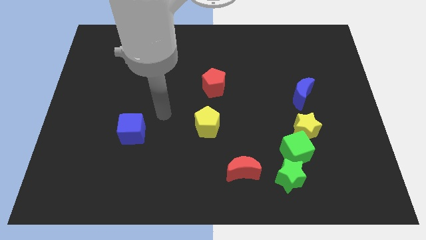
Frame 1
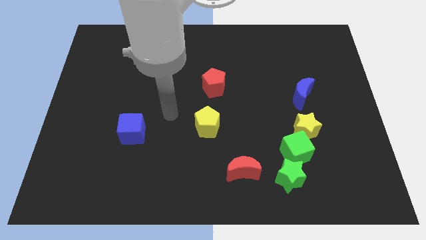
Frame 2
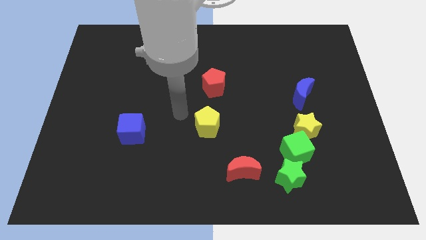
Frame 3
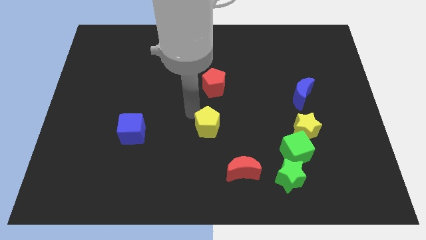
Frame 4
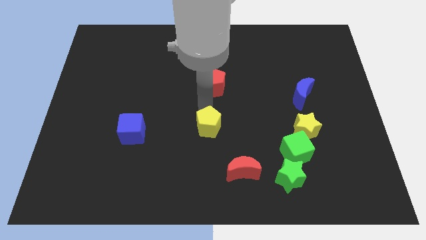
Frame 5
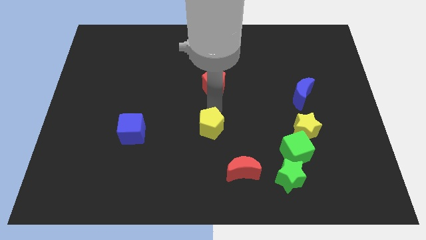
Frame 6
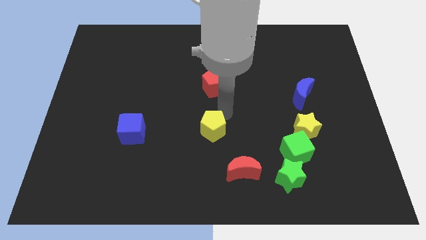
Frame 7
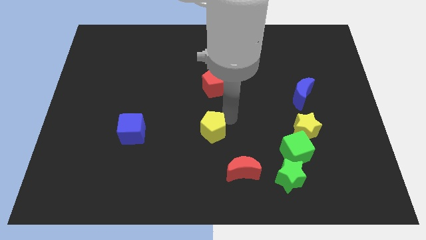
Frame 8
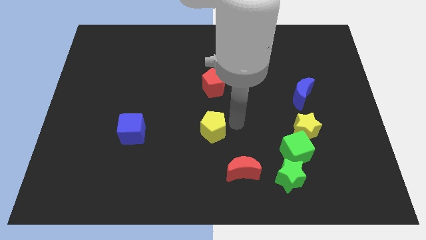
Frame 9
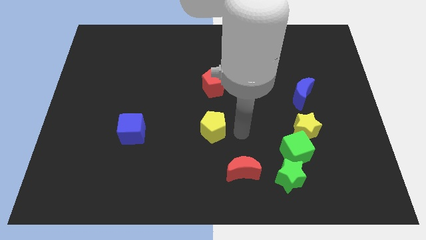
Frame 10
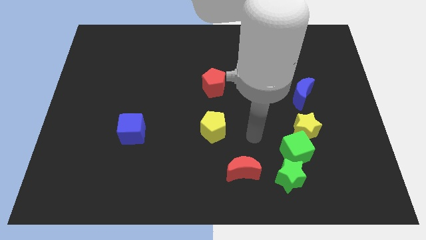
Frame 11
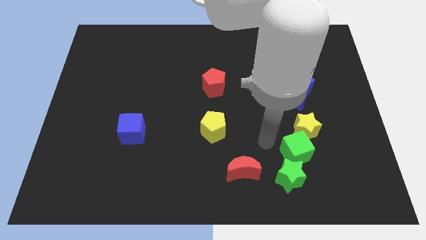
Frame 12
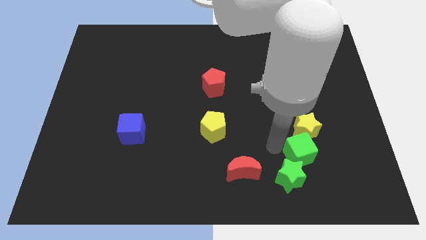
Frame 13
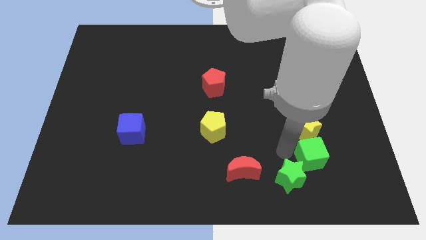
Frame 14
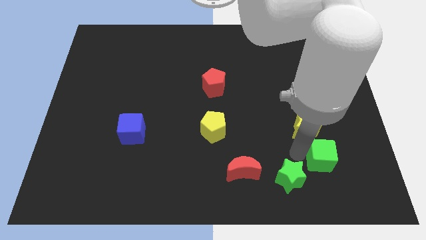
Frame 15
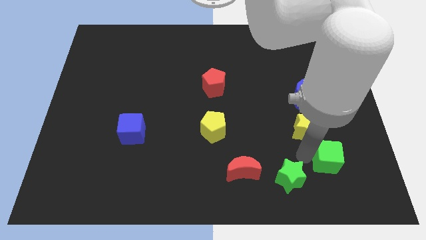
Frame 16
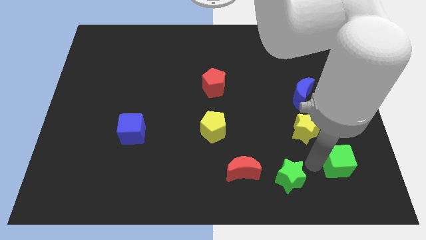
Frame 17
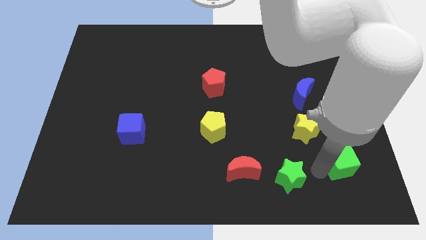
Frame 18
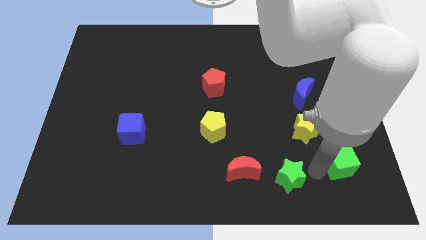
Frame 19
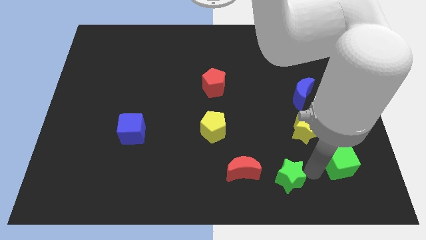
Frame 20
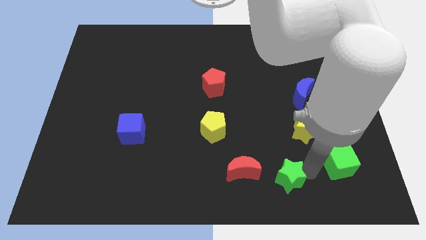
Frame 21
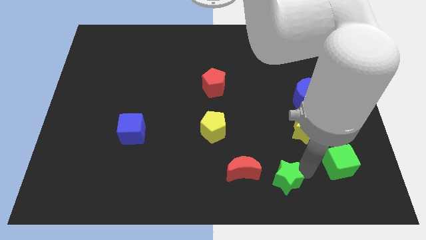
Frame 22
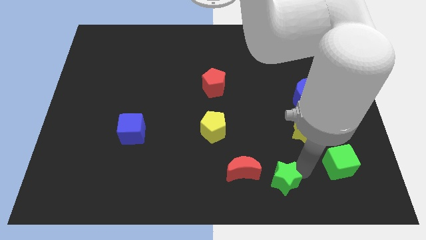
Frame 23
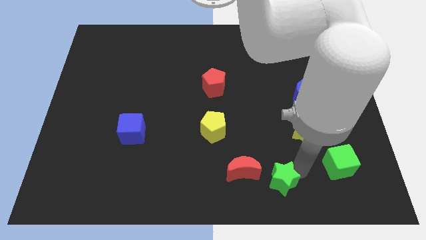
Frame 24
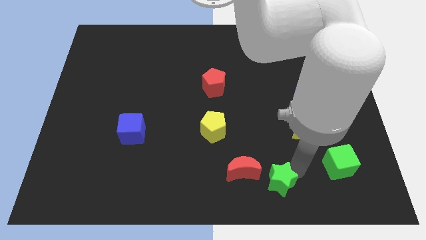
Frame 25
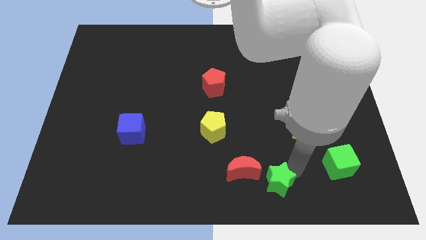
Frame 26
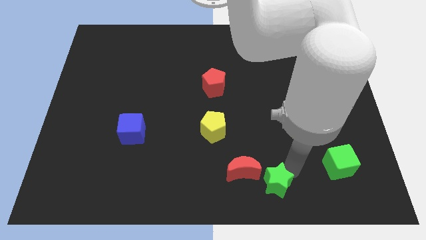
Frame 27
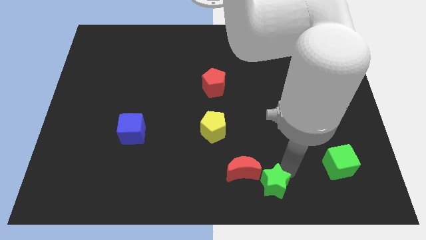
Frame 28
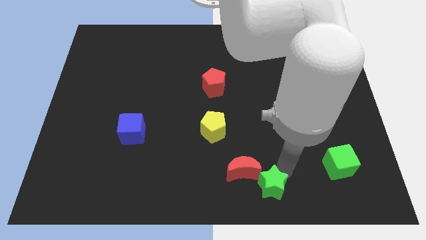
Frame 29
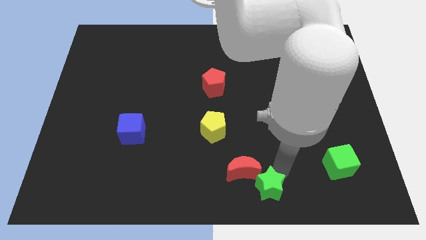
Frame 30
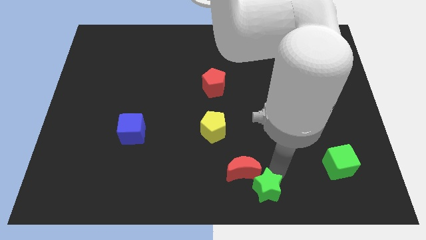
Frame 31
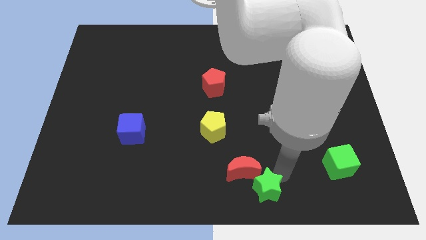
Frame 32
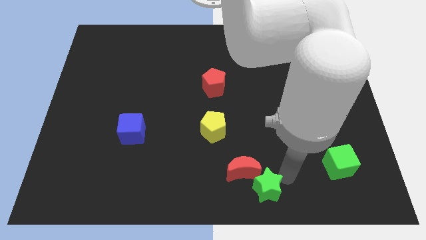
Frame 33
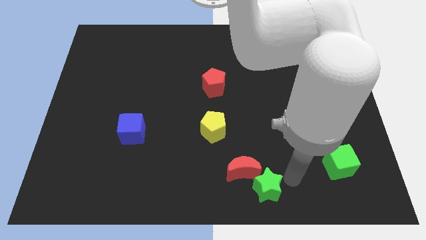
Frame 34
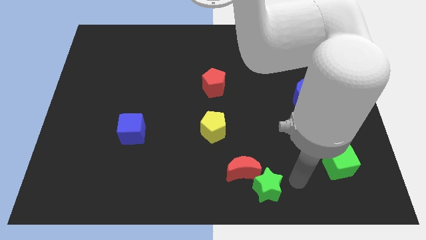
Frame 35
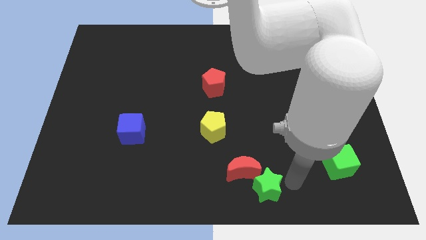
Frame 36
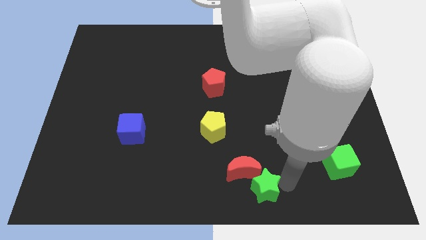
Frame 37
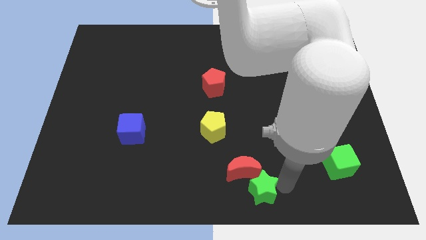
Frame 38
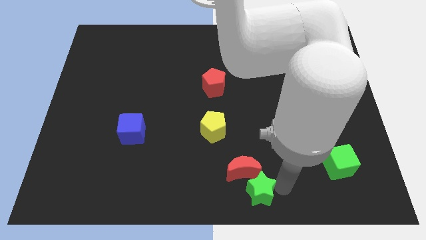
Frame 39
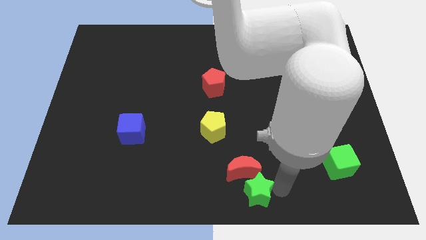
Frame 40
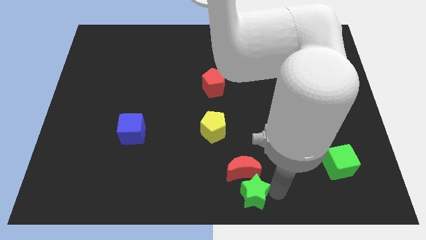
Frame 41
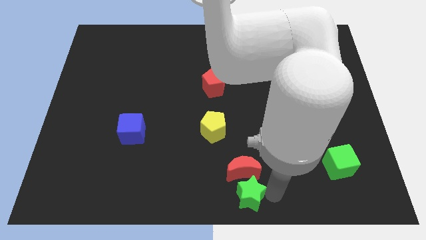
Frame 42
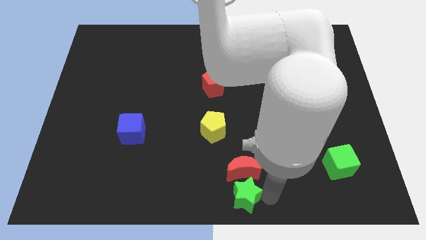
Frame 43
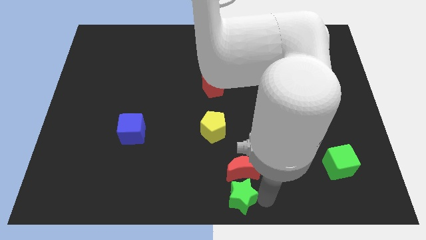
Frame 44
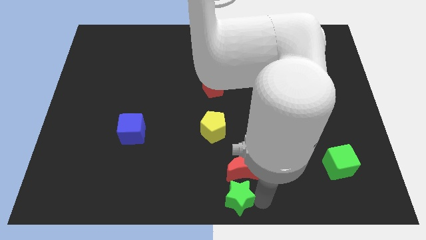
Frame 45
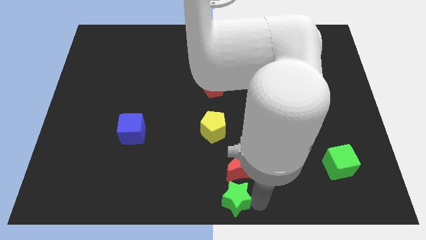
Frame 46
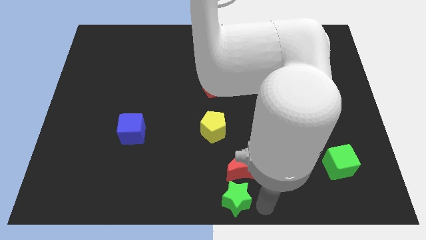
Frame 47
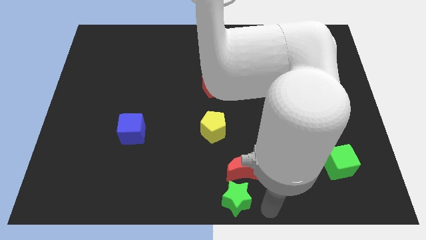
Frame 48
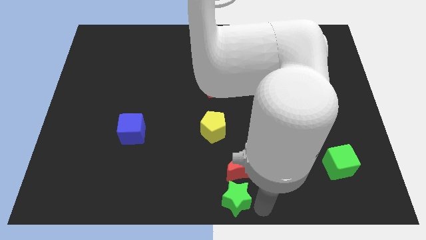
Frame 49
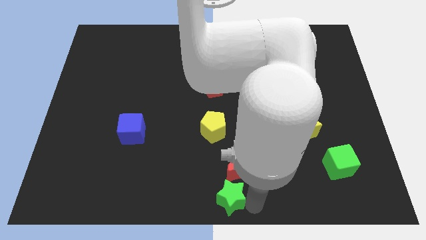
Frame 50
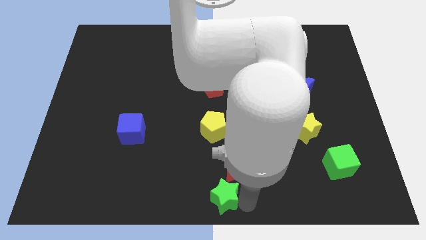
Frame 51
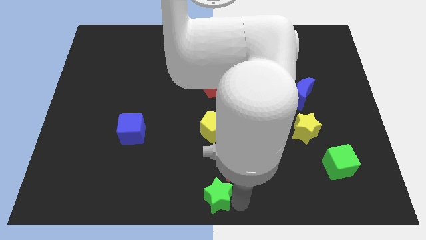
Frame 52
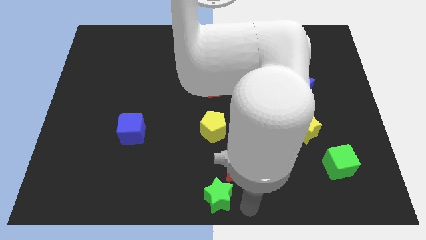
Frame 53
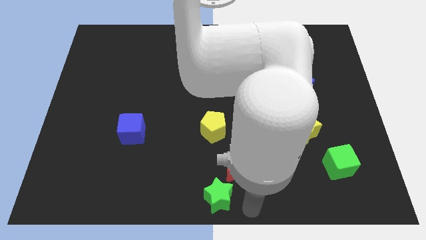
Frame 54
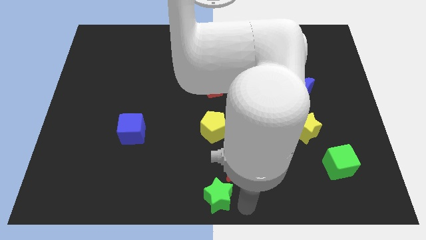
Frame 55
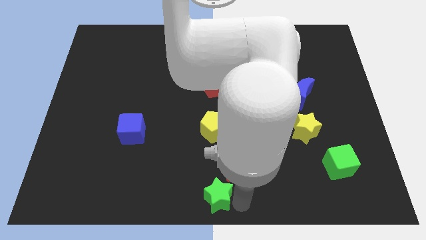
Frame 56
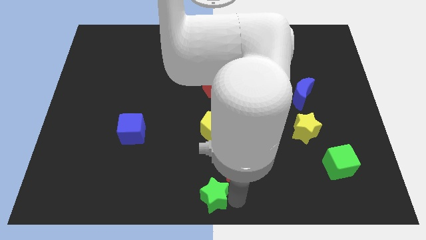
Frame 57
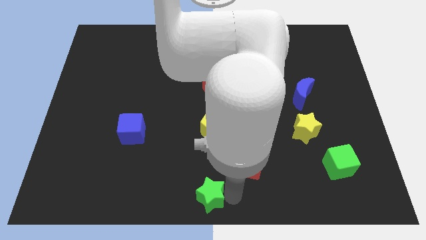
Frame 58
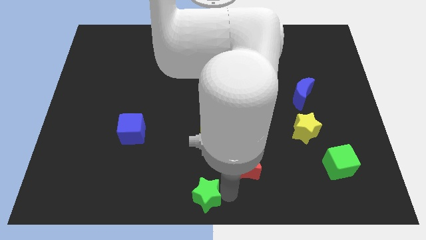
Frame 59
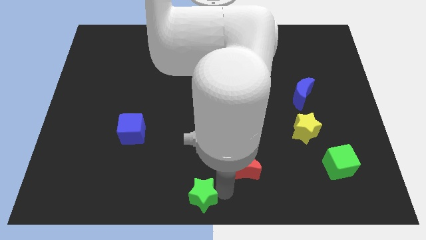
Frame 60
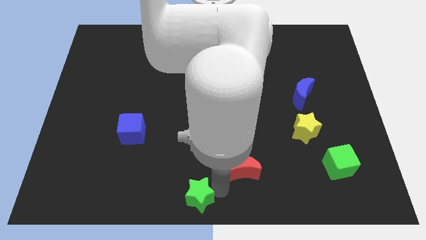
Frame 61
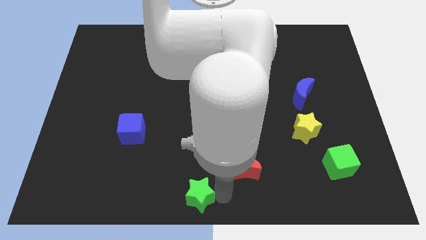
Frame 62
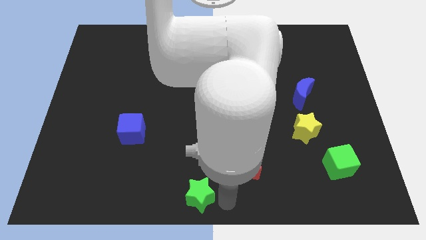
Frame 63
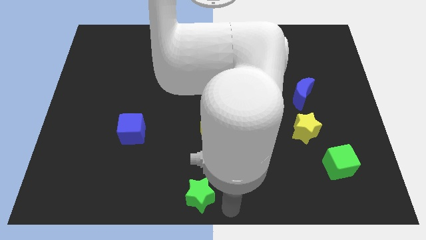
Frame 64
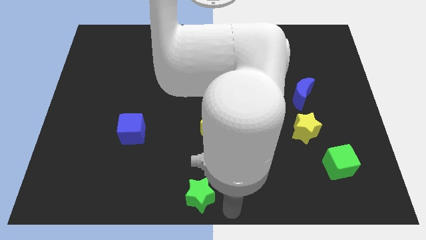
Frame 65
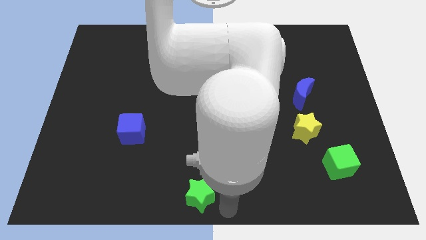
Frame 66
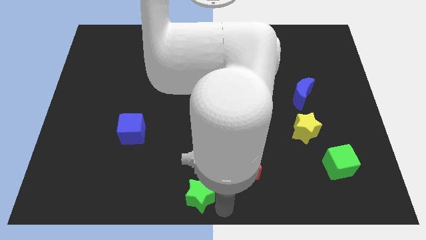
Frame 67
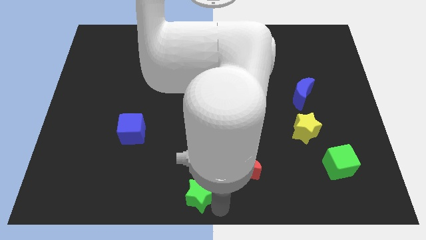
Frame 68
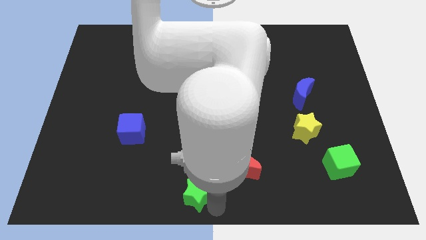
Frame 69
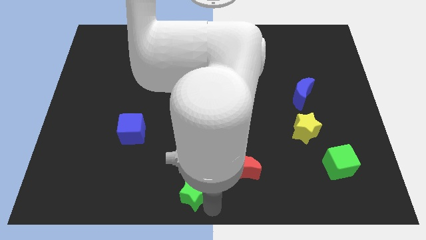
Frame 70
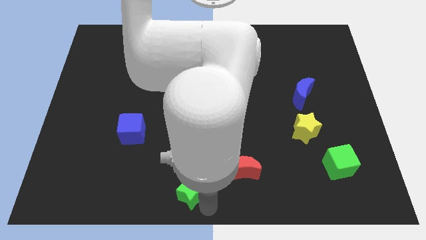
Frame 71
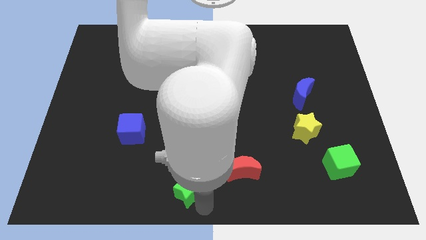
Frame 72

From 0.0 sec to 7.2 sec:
move the green star to the left

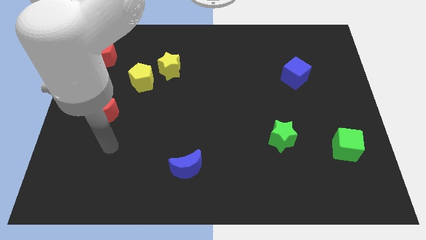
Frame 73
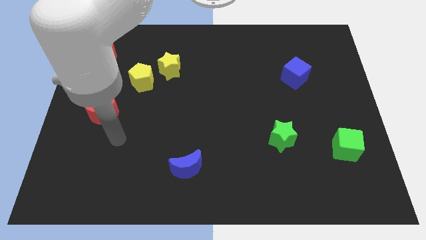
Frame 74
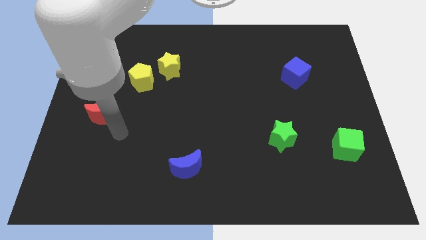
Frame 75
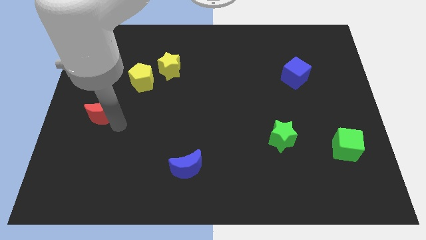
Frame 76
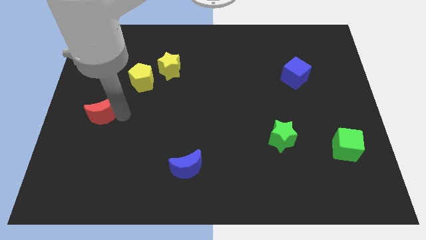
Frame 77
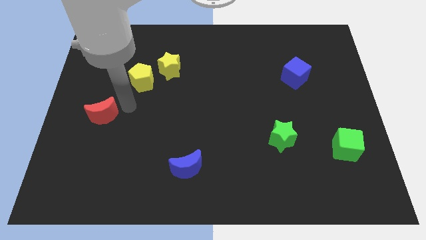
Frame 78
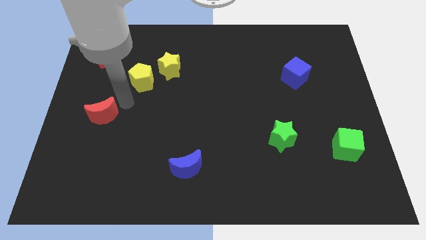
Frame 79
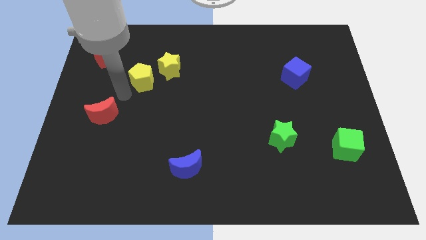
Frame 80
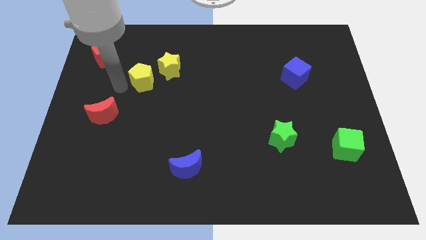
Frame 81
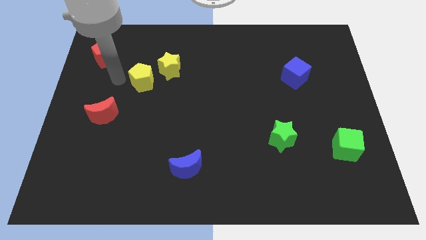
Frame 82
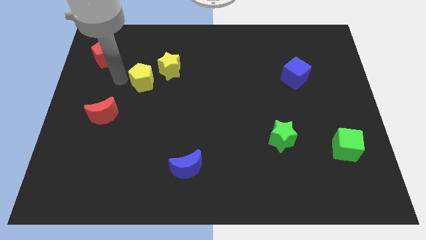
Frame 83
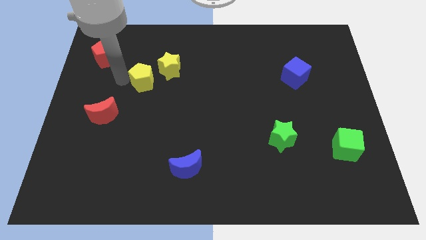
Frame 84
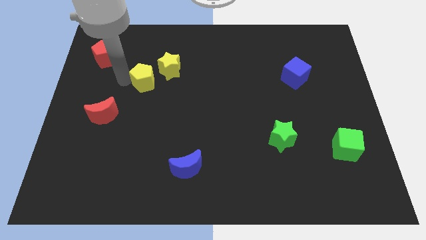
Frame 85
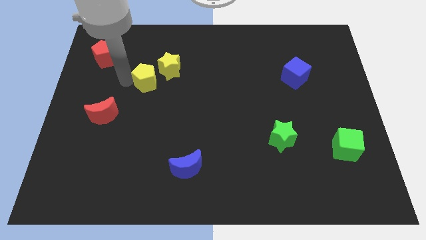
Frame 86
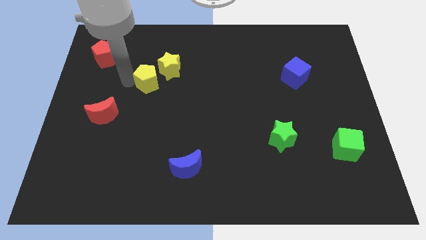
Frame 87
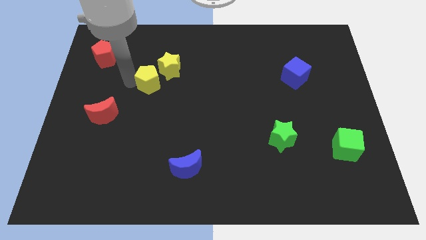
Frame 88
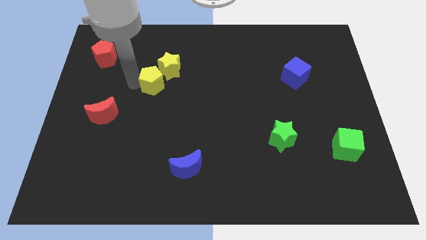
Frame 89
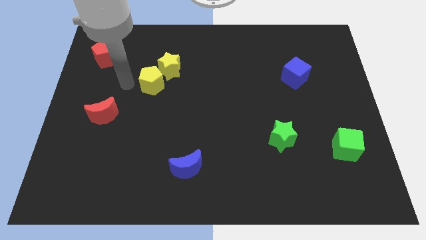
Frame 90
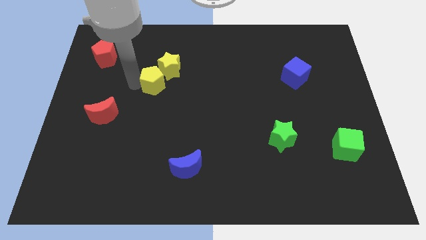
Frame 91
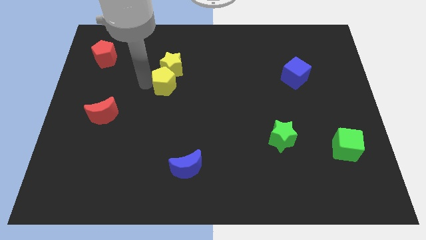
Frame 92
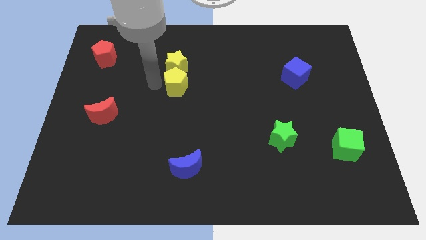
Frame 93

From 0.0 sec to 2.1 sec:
move the yellow pentagon right a little bit
